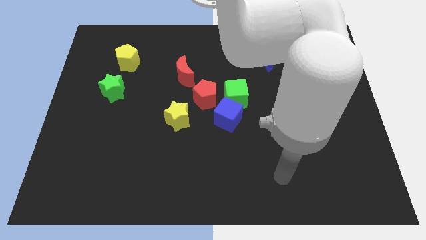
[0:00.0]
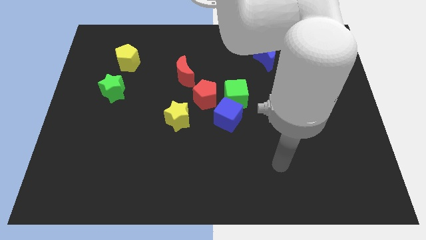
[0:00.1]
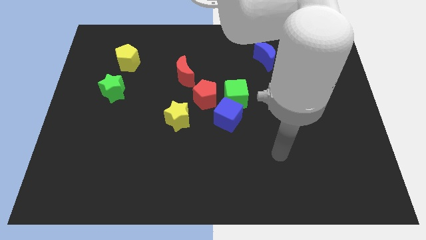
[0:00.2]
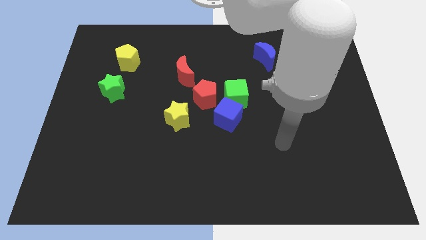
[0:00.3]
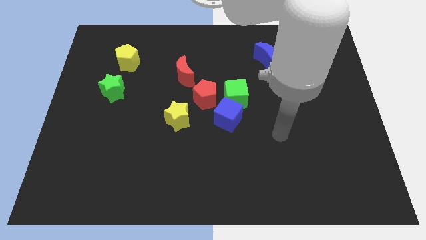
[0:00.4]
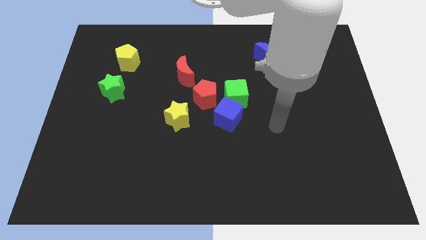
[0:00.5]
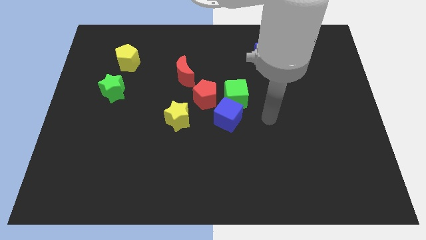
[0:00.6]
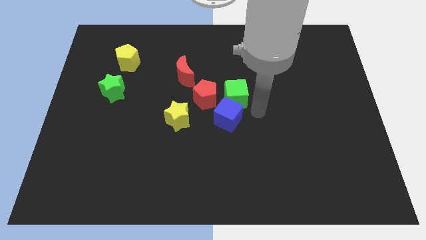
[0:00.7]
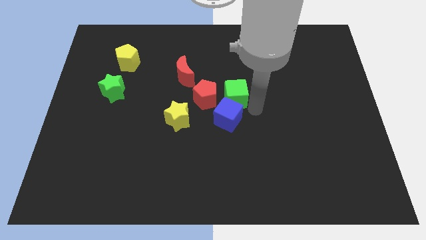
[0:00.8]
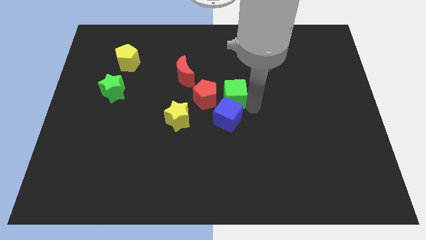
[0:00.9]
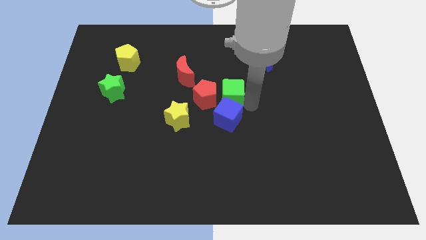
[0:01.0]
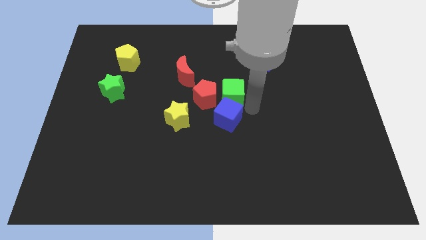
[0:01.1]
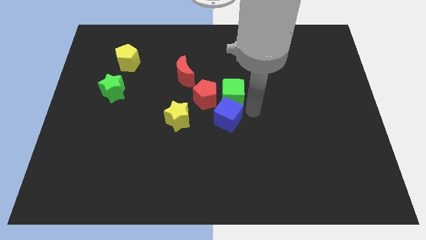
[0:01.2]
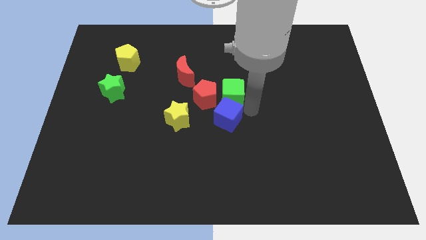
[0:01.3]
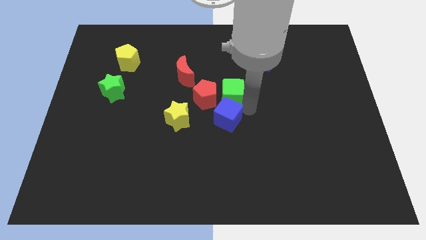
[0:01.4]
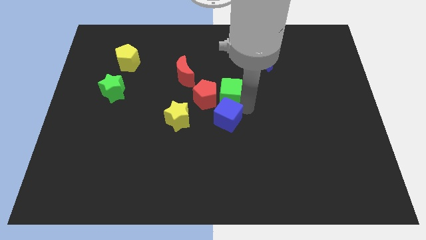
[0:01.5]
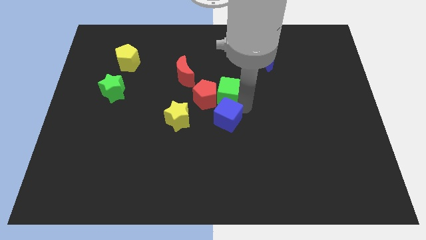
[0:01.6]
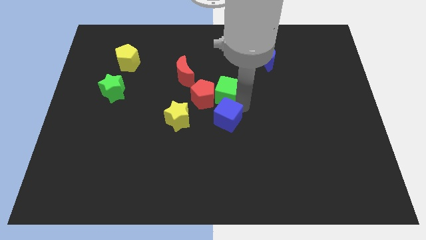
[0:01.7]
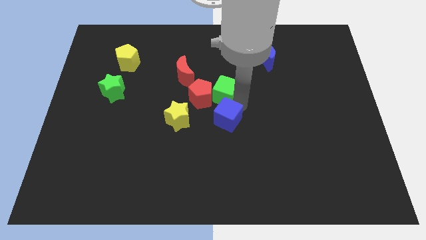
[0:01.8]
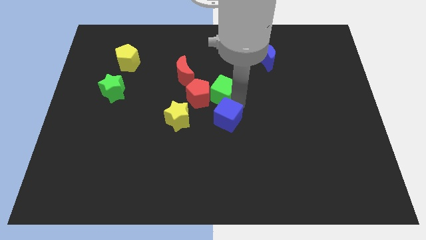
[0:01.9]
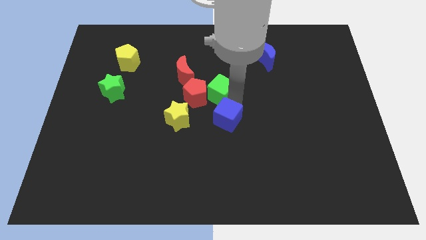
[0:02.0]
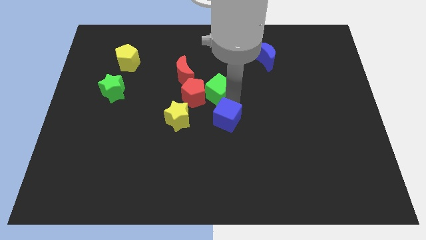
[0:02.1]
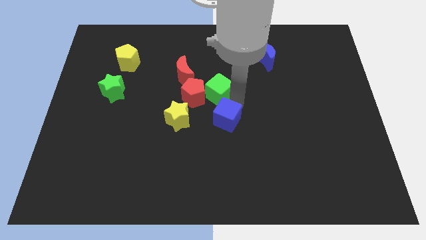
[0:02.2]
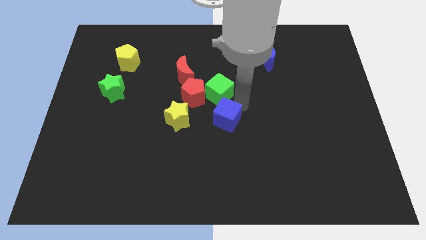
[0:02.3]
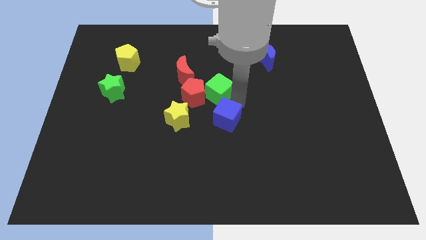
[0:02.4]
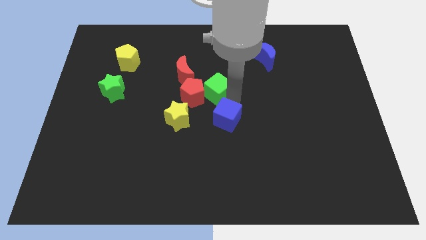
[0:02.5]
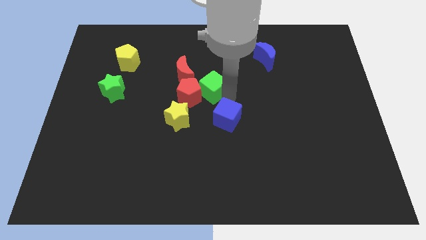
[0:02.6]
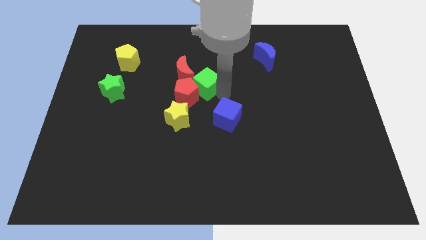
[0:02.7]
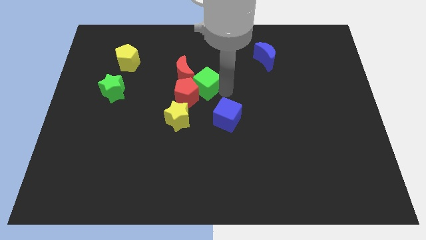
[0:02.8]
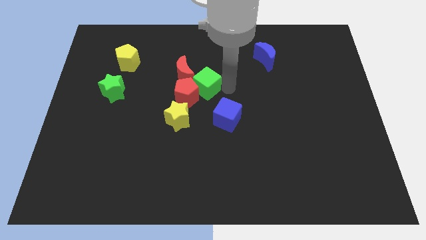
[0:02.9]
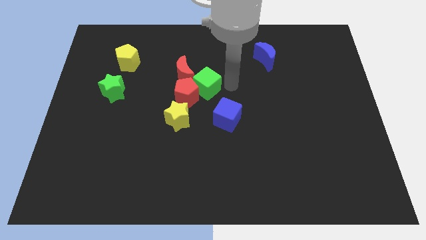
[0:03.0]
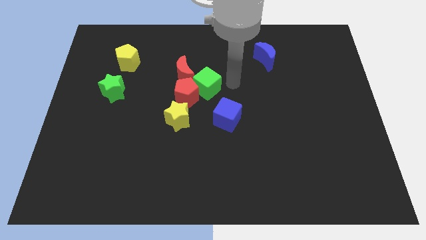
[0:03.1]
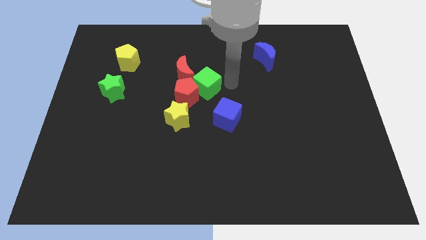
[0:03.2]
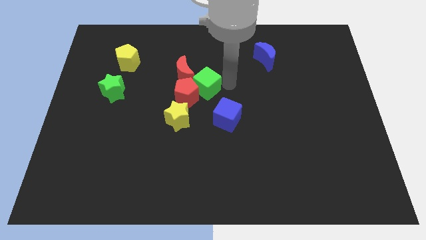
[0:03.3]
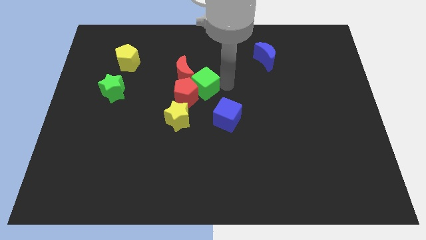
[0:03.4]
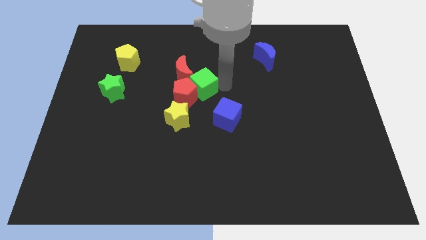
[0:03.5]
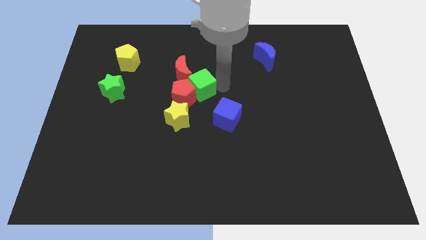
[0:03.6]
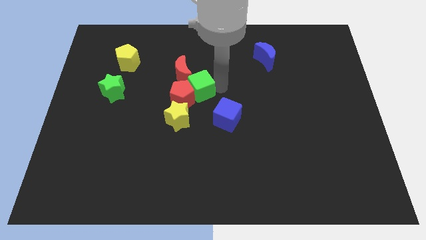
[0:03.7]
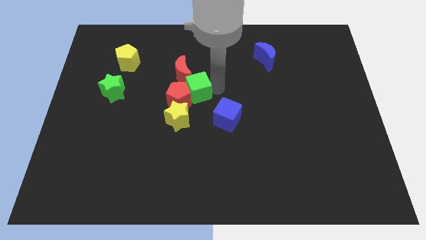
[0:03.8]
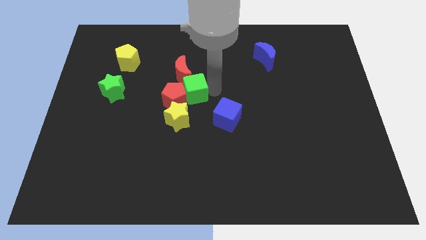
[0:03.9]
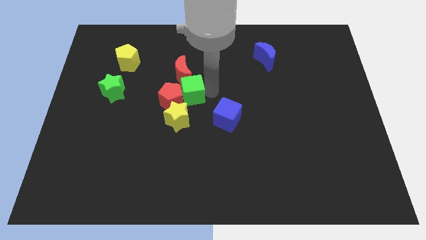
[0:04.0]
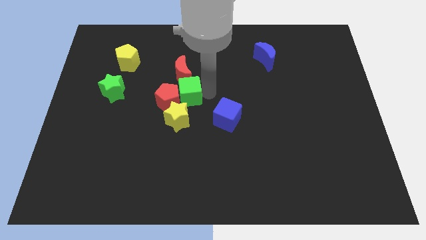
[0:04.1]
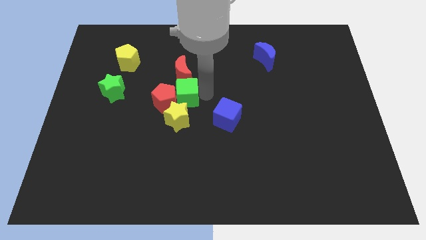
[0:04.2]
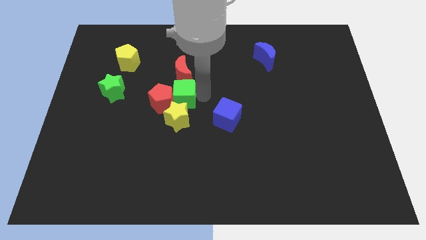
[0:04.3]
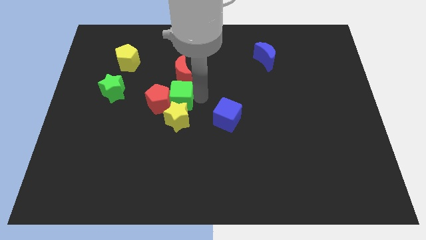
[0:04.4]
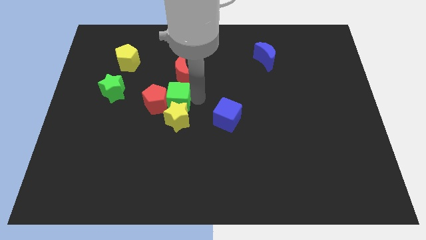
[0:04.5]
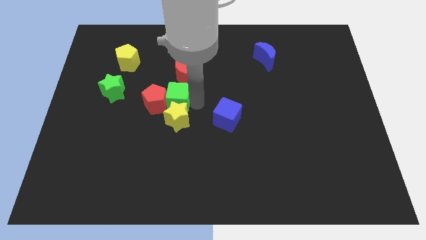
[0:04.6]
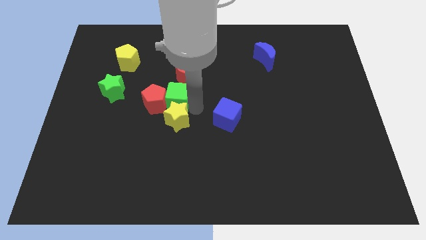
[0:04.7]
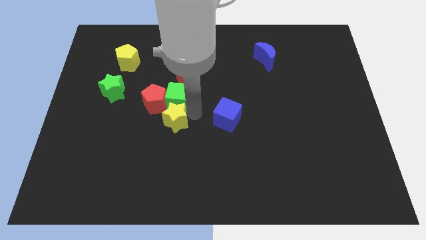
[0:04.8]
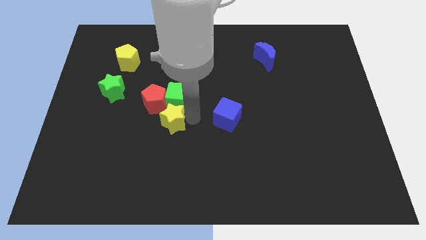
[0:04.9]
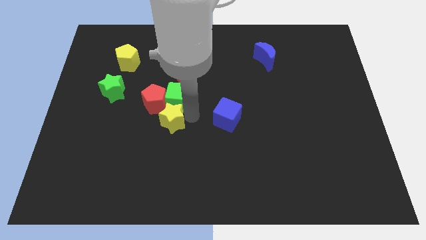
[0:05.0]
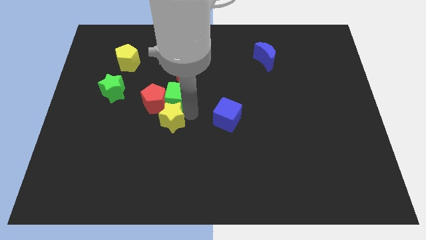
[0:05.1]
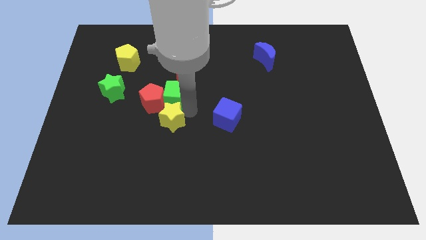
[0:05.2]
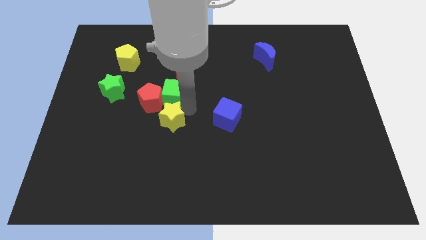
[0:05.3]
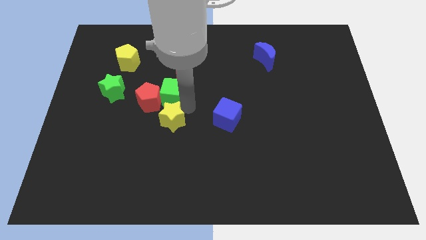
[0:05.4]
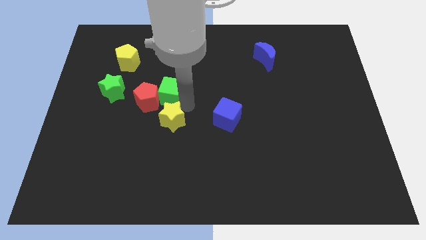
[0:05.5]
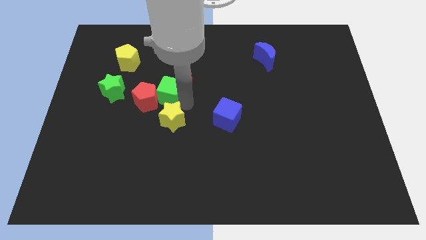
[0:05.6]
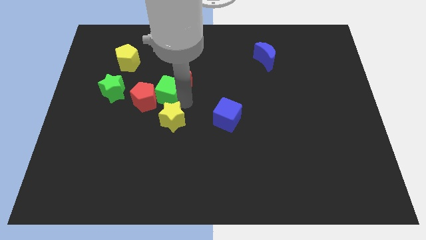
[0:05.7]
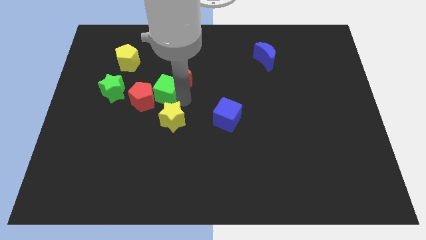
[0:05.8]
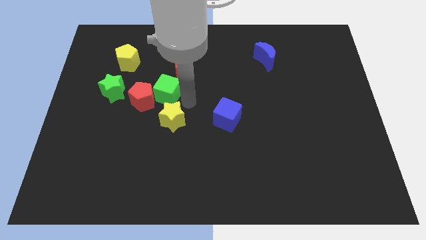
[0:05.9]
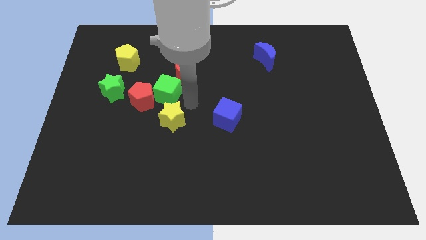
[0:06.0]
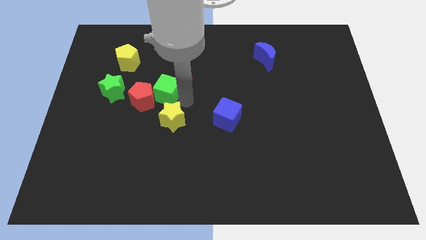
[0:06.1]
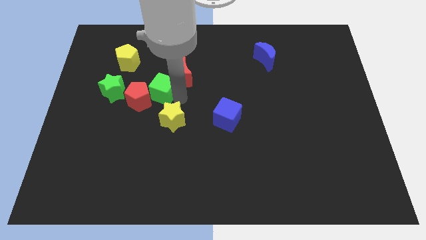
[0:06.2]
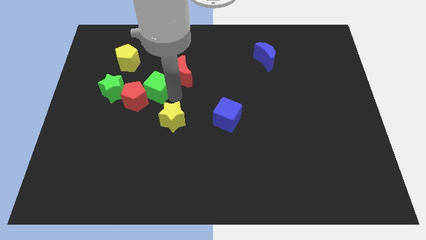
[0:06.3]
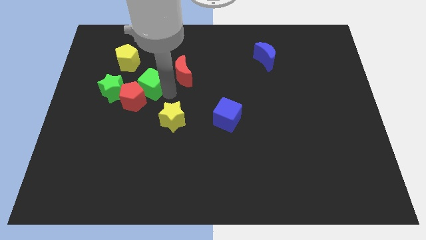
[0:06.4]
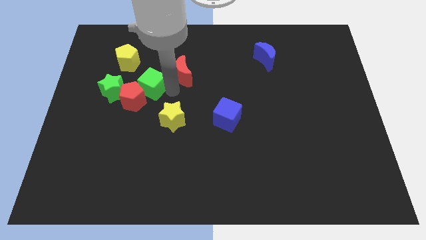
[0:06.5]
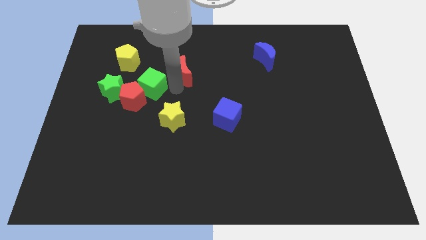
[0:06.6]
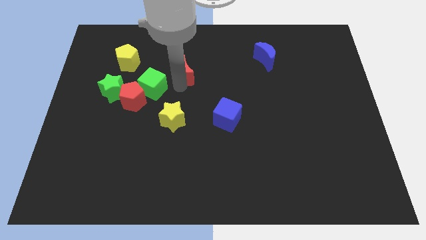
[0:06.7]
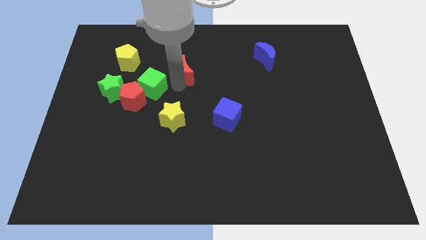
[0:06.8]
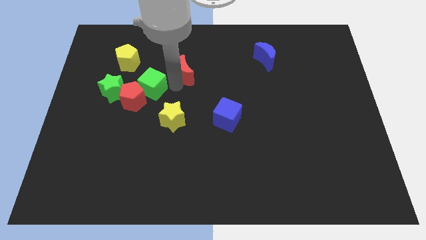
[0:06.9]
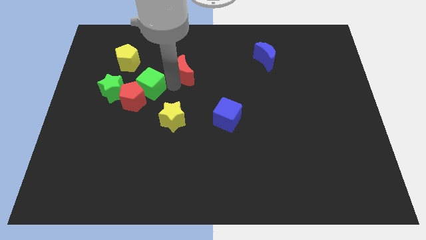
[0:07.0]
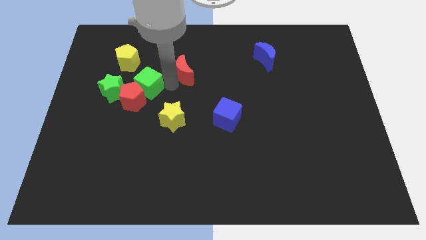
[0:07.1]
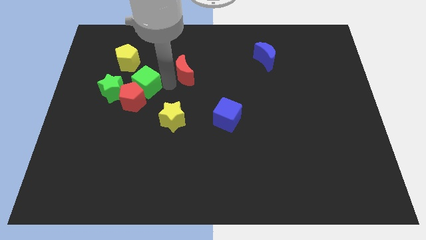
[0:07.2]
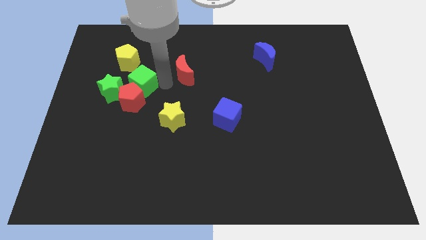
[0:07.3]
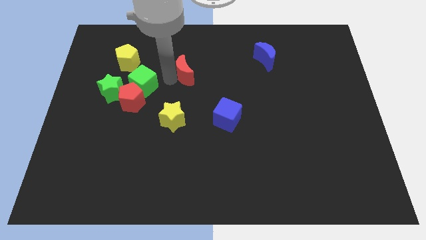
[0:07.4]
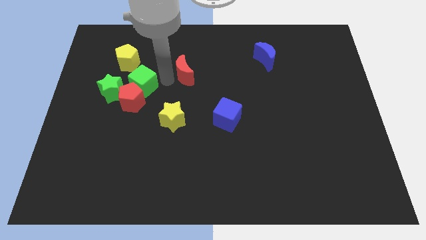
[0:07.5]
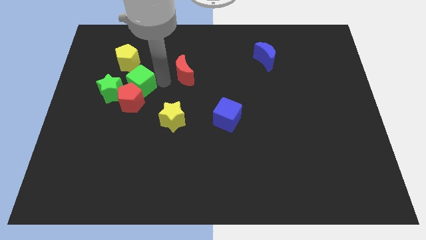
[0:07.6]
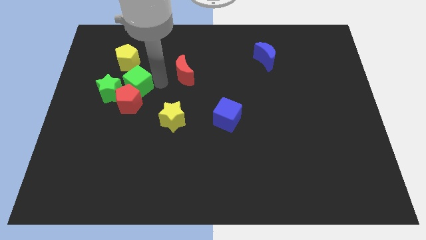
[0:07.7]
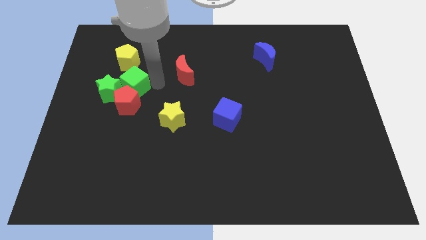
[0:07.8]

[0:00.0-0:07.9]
move the green cube to the green star
